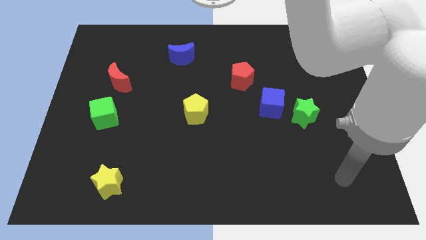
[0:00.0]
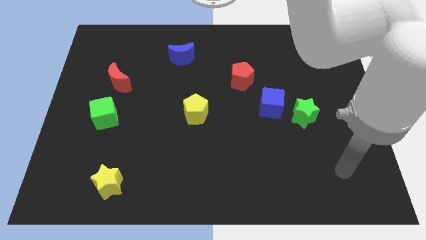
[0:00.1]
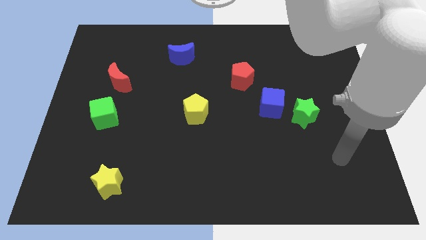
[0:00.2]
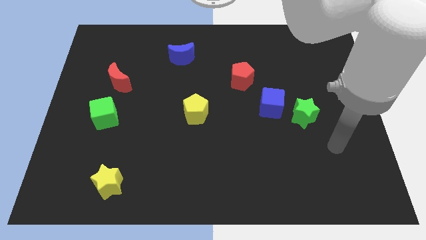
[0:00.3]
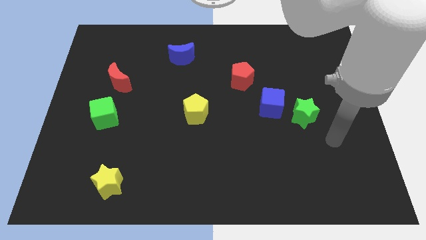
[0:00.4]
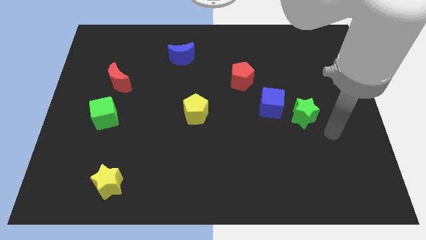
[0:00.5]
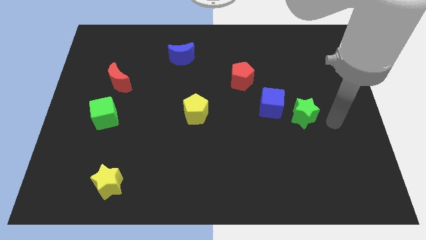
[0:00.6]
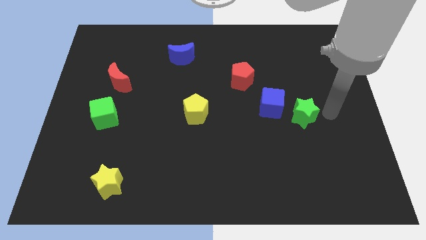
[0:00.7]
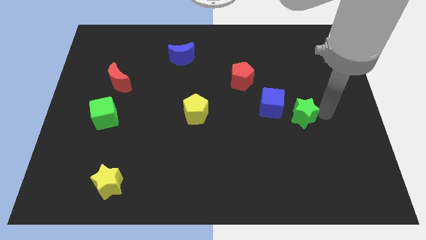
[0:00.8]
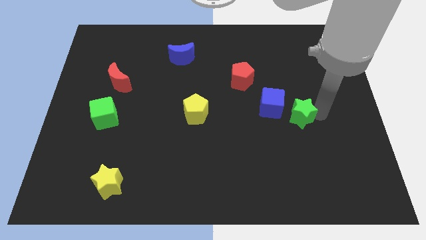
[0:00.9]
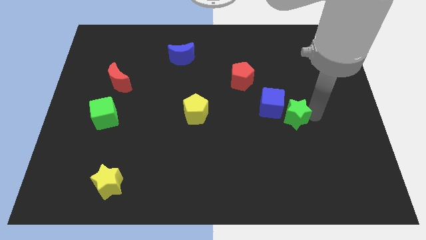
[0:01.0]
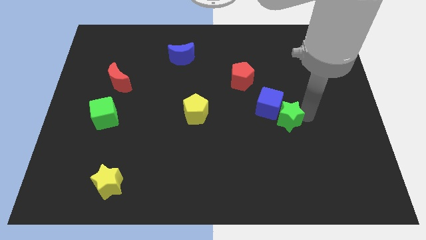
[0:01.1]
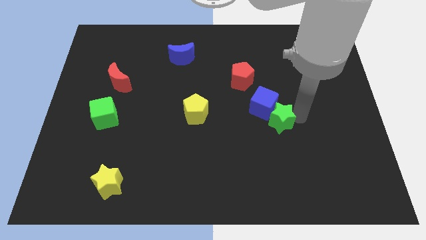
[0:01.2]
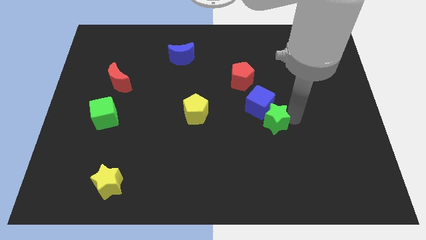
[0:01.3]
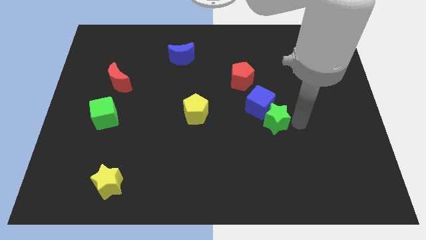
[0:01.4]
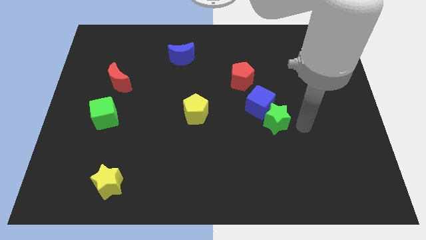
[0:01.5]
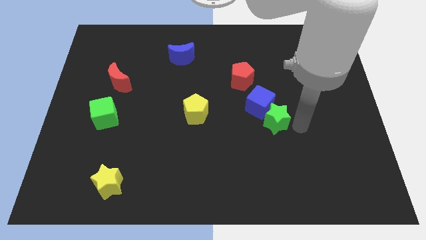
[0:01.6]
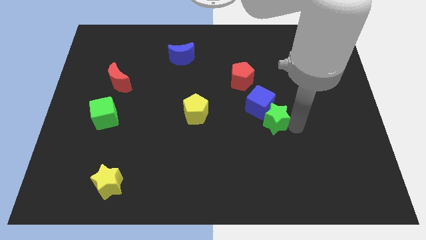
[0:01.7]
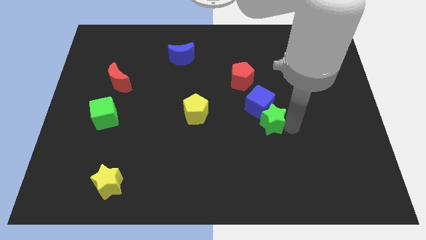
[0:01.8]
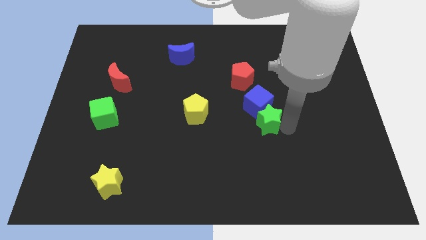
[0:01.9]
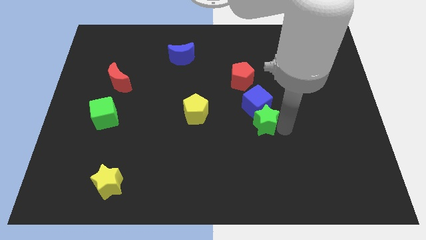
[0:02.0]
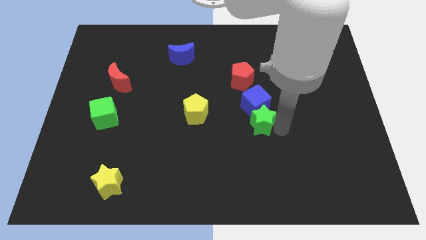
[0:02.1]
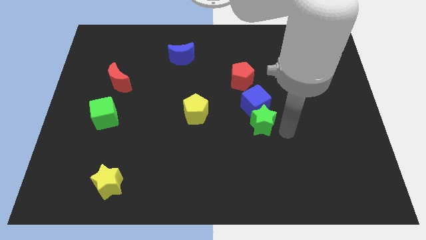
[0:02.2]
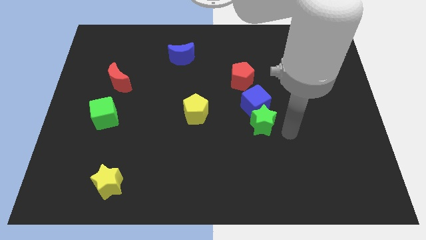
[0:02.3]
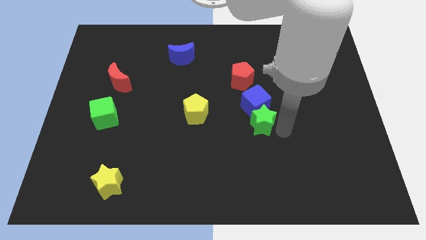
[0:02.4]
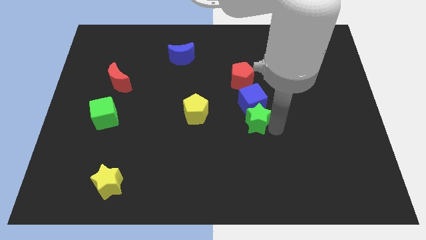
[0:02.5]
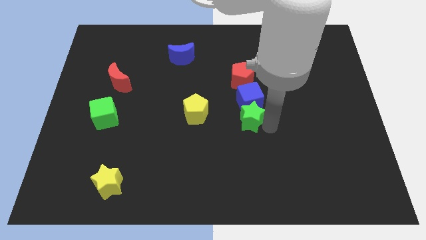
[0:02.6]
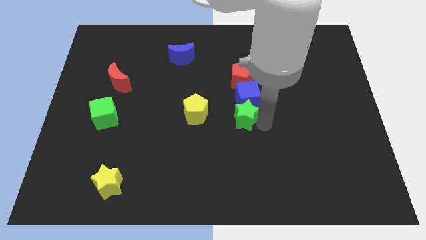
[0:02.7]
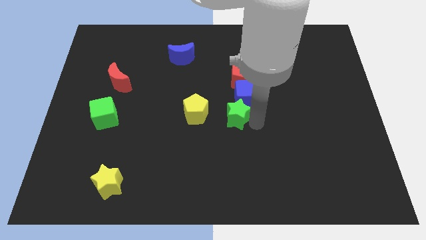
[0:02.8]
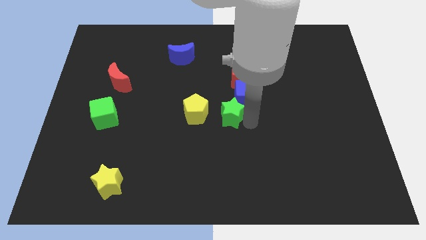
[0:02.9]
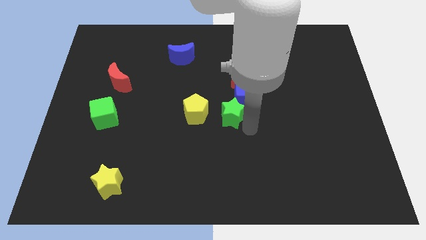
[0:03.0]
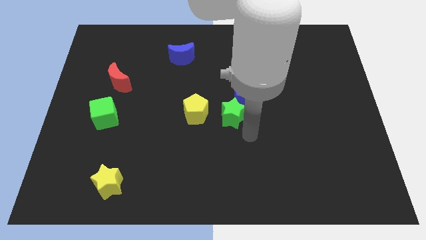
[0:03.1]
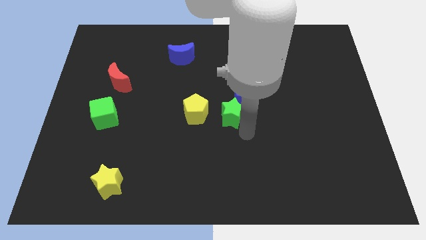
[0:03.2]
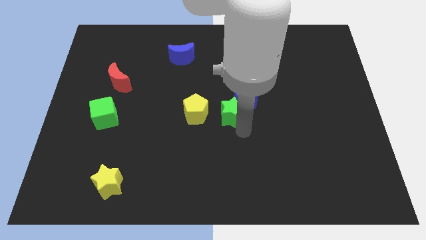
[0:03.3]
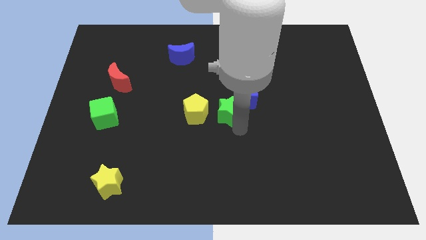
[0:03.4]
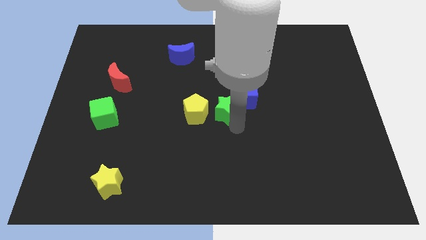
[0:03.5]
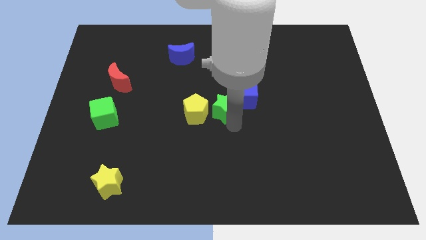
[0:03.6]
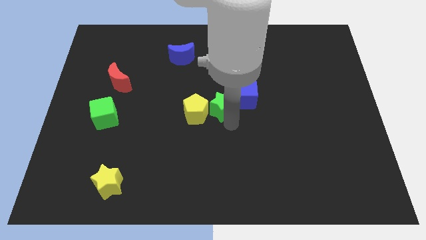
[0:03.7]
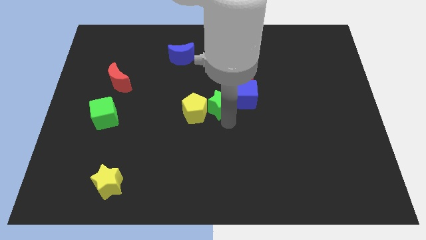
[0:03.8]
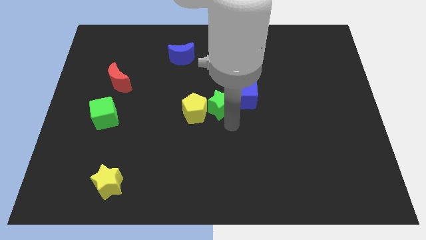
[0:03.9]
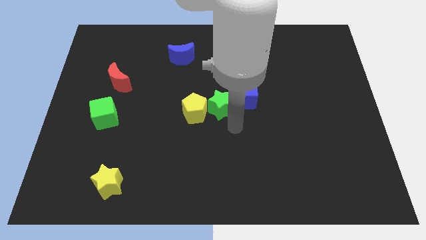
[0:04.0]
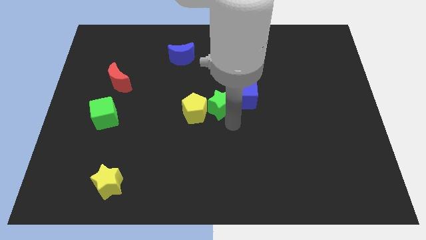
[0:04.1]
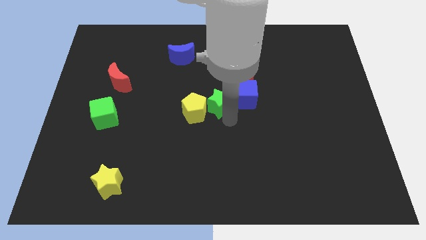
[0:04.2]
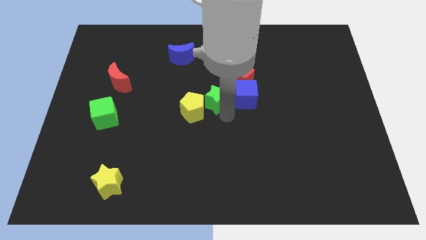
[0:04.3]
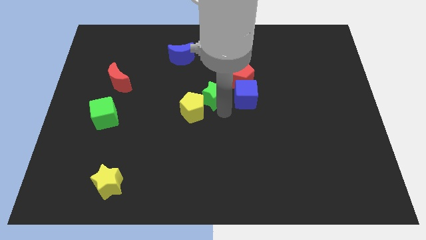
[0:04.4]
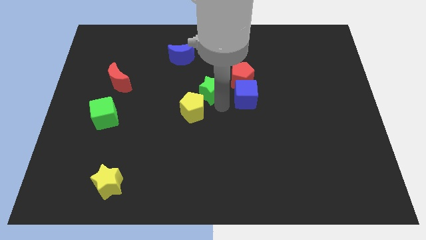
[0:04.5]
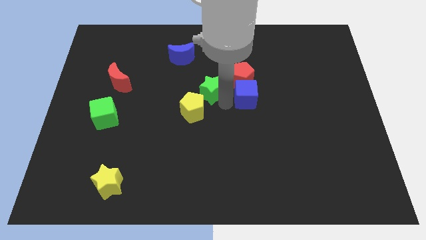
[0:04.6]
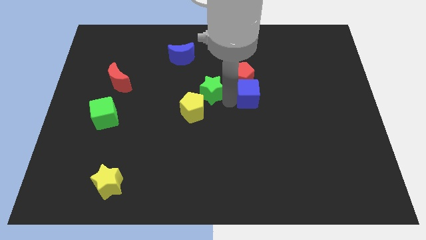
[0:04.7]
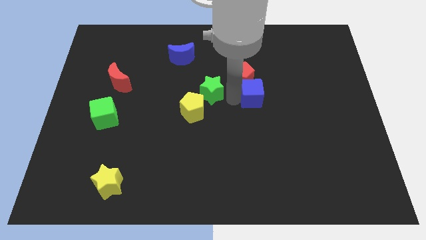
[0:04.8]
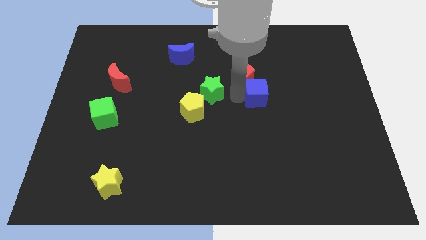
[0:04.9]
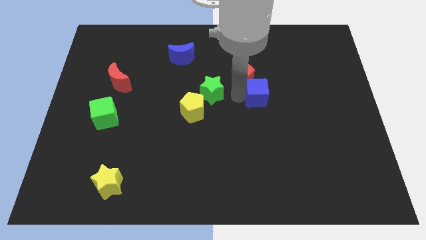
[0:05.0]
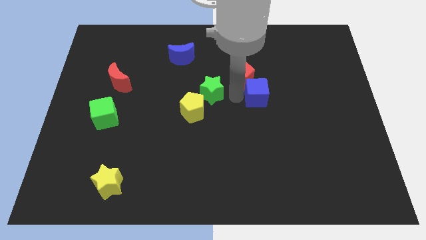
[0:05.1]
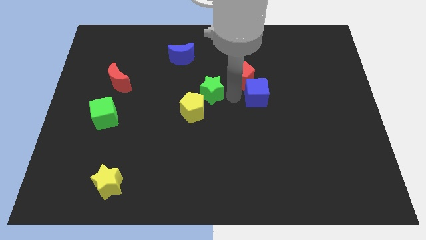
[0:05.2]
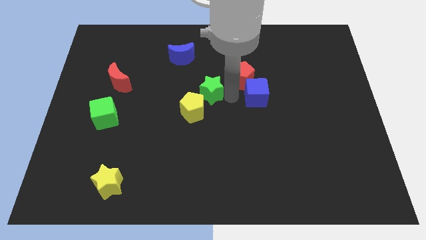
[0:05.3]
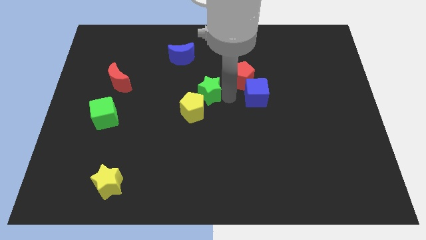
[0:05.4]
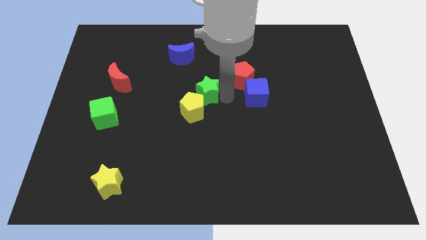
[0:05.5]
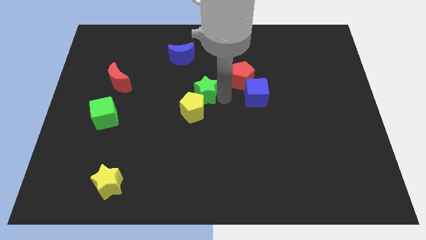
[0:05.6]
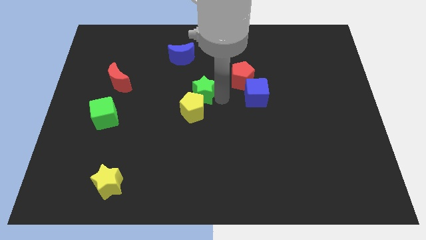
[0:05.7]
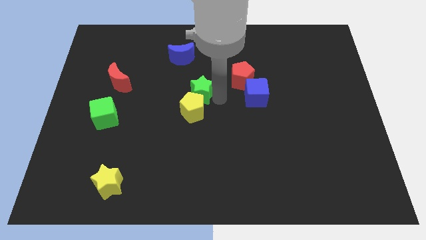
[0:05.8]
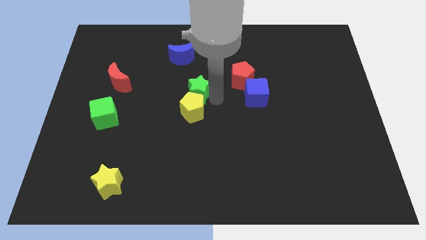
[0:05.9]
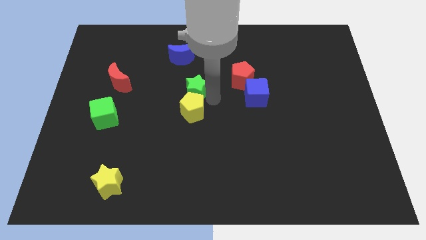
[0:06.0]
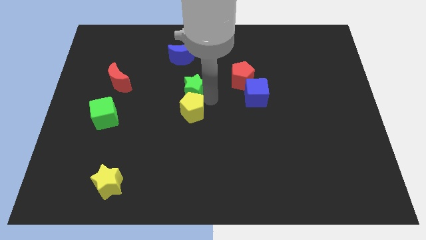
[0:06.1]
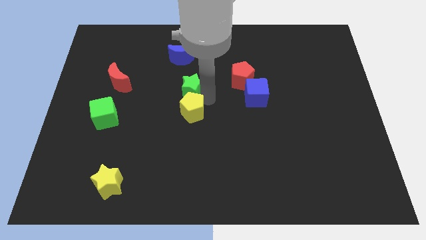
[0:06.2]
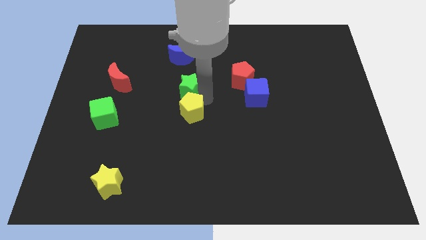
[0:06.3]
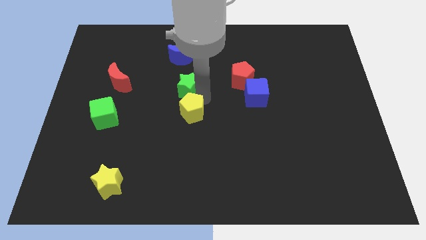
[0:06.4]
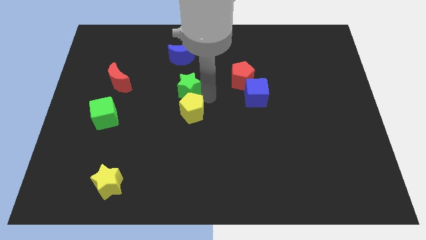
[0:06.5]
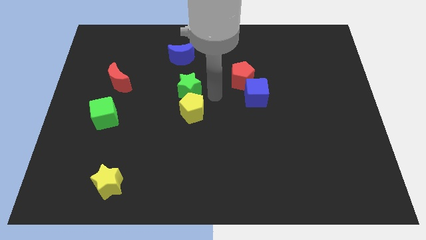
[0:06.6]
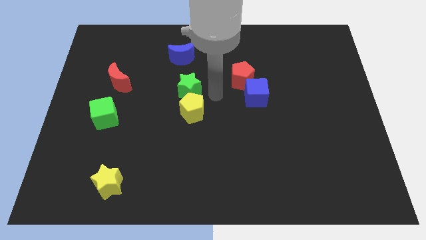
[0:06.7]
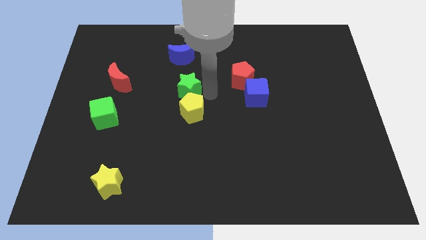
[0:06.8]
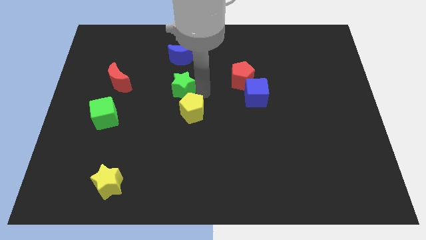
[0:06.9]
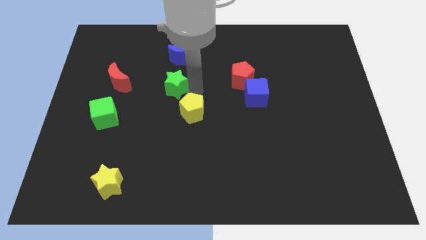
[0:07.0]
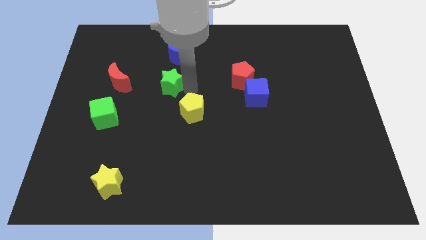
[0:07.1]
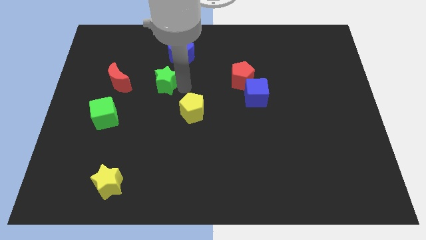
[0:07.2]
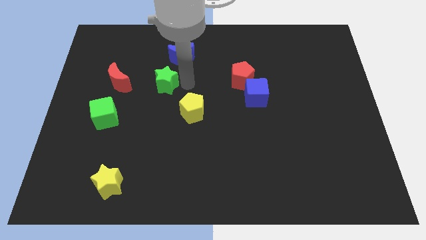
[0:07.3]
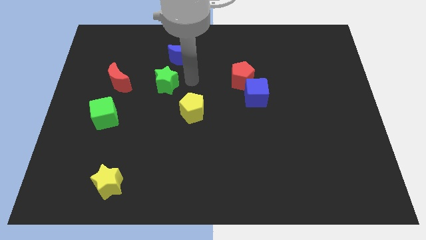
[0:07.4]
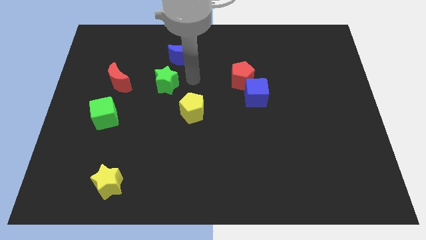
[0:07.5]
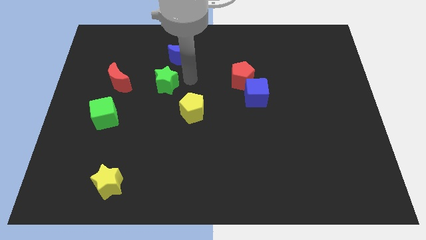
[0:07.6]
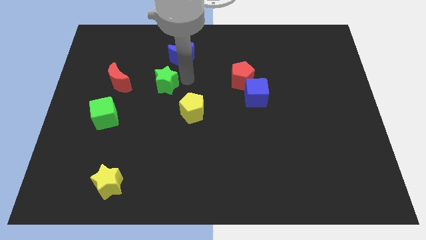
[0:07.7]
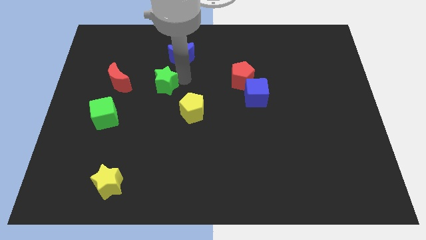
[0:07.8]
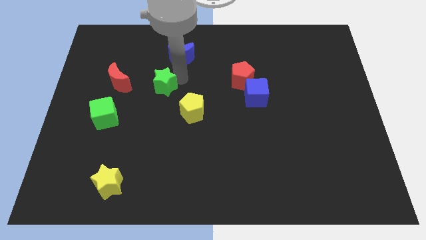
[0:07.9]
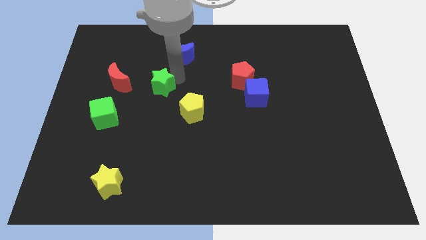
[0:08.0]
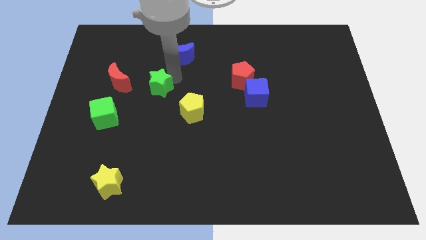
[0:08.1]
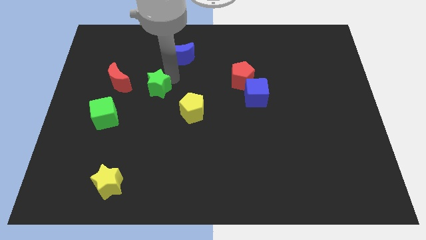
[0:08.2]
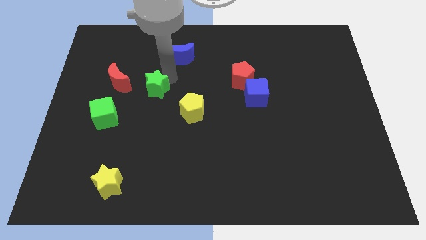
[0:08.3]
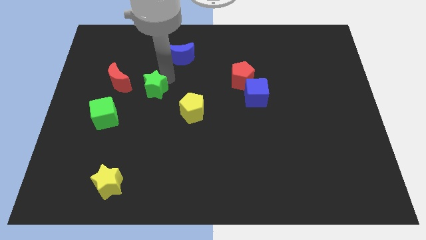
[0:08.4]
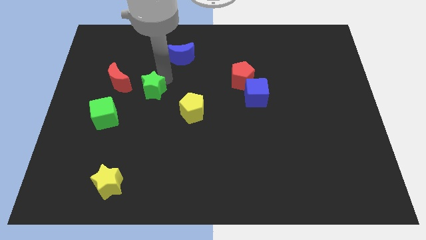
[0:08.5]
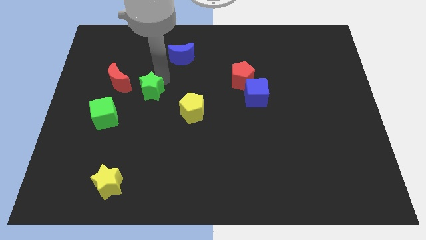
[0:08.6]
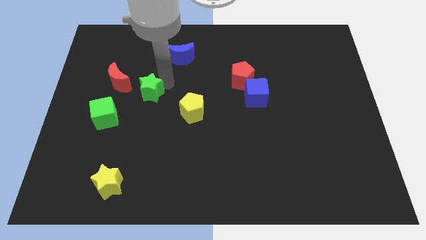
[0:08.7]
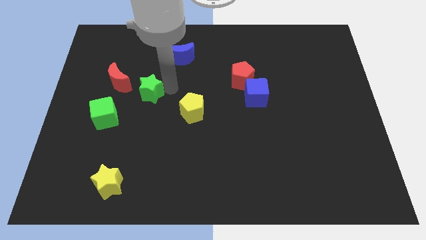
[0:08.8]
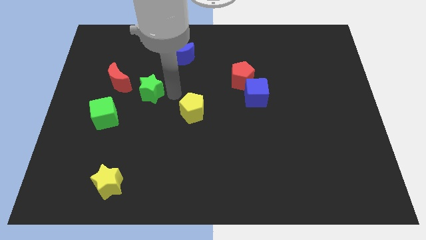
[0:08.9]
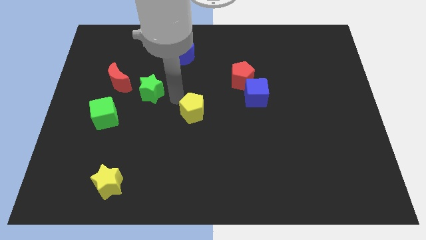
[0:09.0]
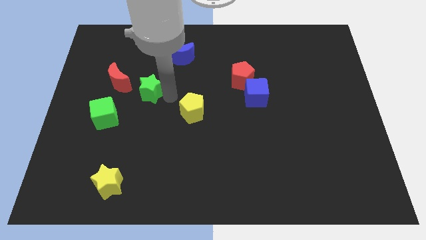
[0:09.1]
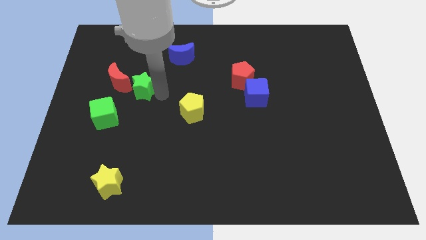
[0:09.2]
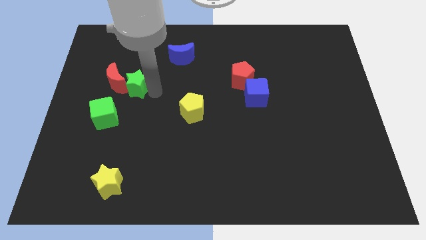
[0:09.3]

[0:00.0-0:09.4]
push the green star close to the red moon
